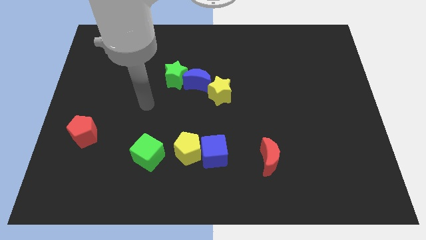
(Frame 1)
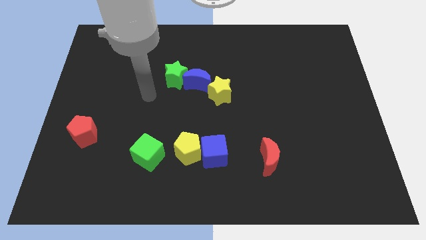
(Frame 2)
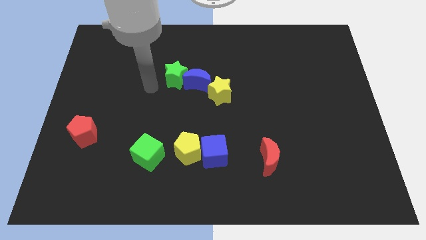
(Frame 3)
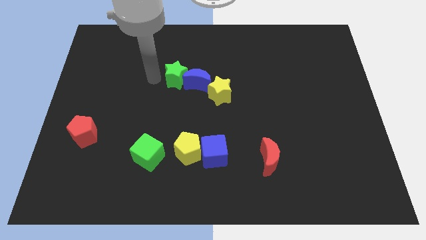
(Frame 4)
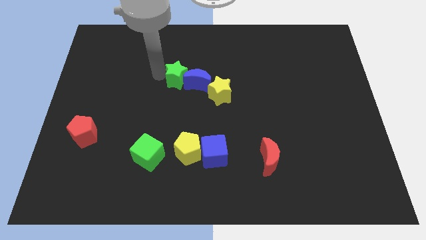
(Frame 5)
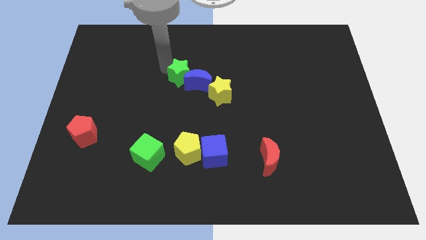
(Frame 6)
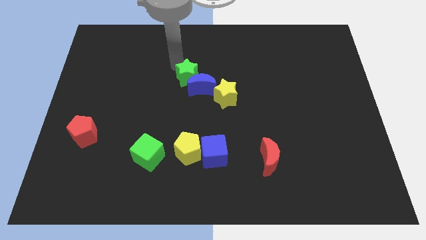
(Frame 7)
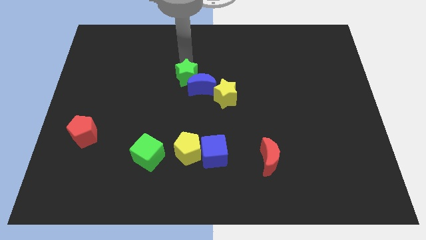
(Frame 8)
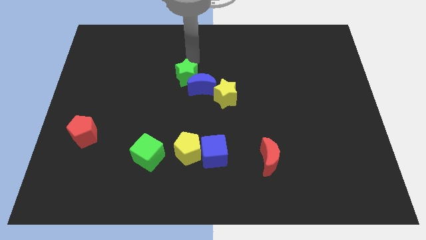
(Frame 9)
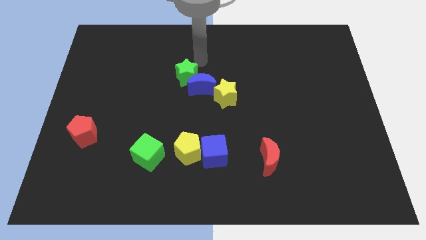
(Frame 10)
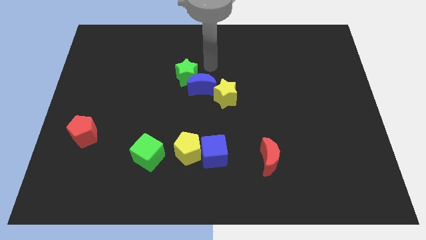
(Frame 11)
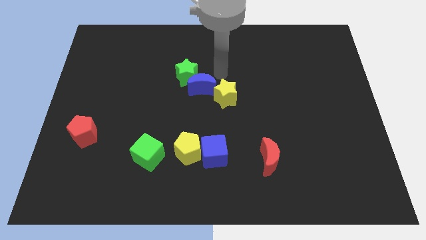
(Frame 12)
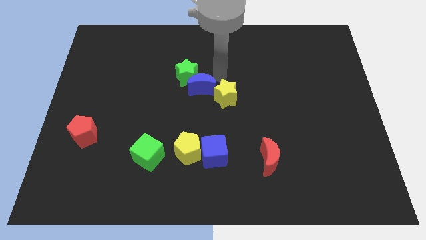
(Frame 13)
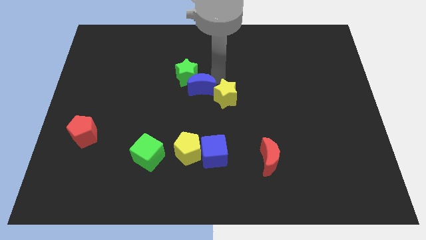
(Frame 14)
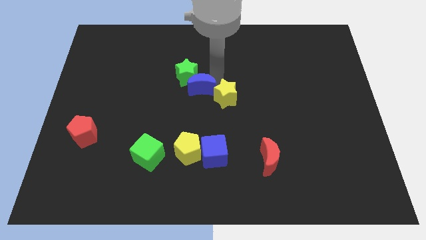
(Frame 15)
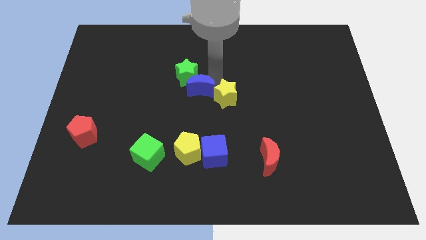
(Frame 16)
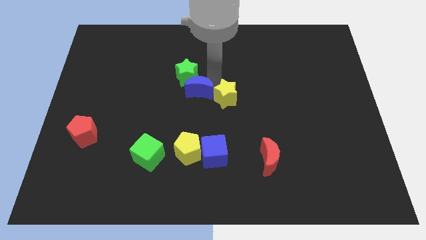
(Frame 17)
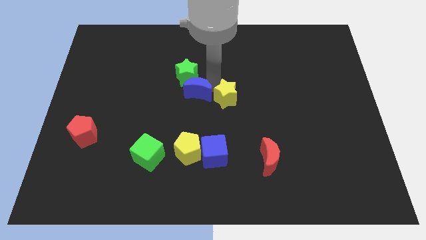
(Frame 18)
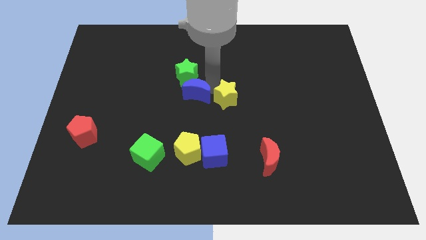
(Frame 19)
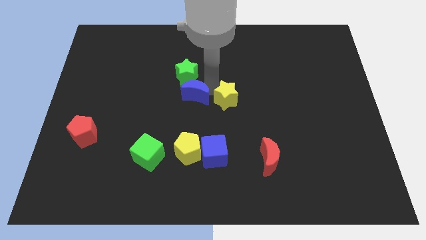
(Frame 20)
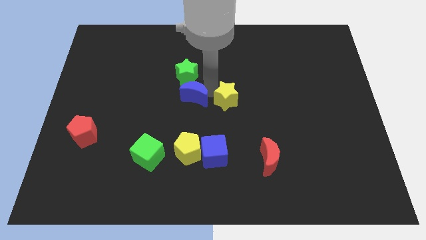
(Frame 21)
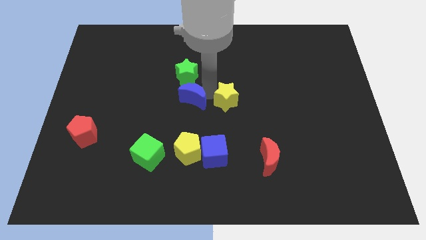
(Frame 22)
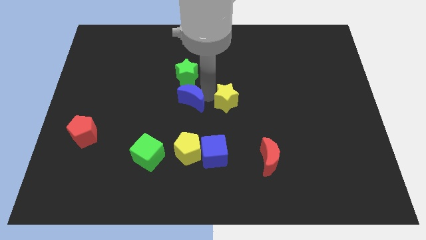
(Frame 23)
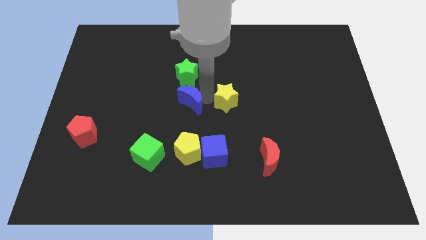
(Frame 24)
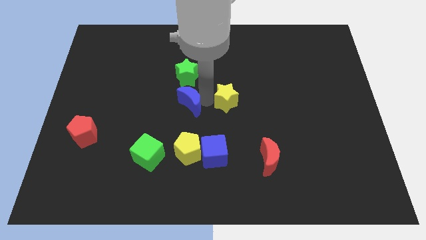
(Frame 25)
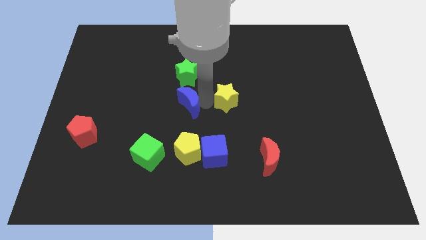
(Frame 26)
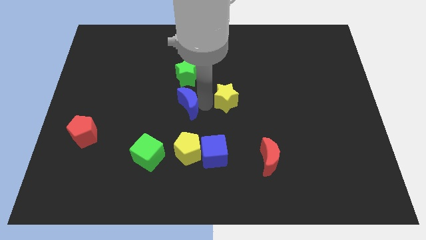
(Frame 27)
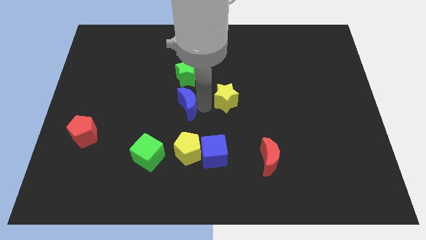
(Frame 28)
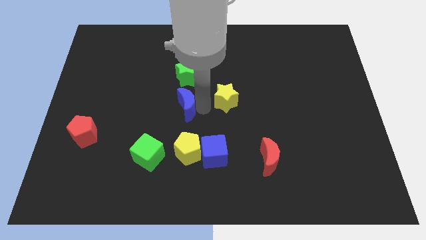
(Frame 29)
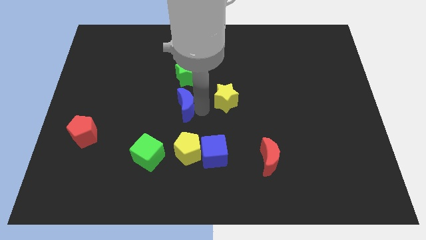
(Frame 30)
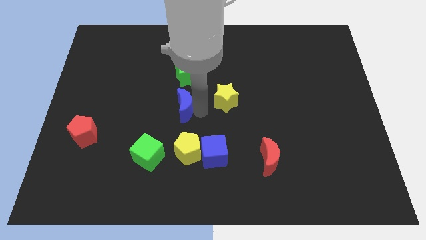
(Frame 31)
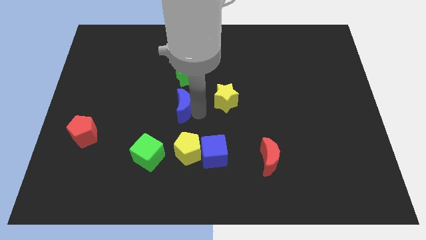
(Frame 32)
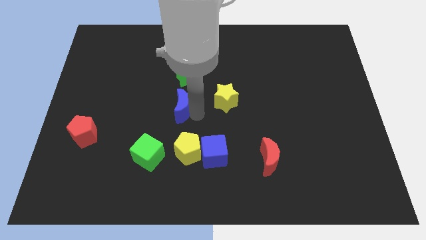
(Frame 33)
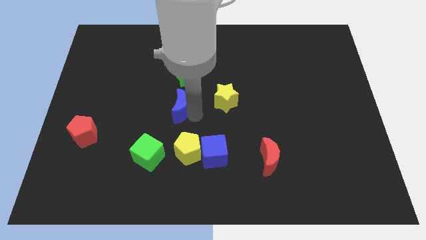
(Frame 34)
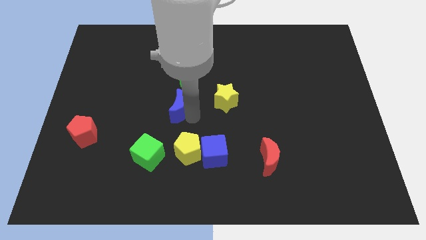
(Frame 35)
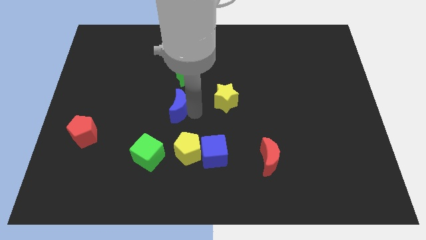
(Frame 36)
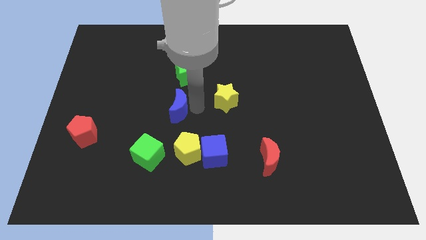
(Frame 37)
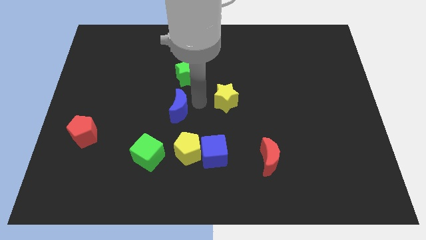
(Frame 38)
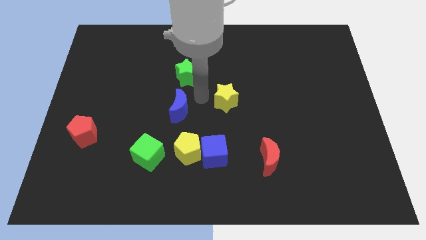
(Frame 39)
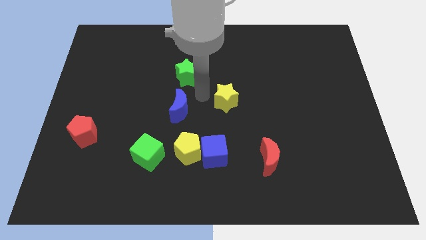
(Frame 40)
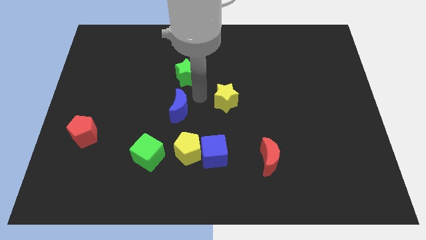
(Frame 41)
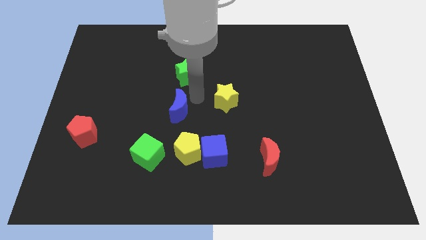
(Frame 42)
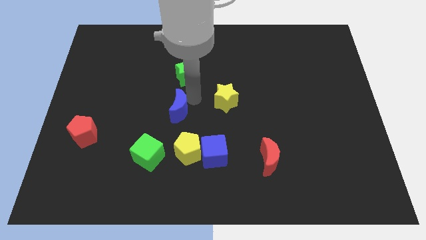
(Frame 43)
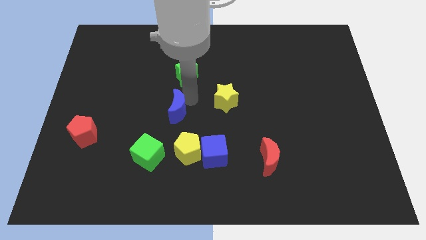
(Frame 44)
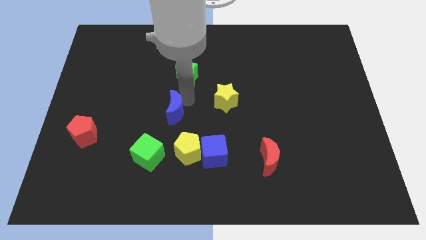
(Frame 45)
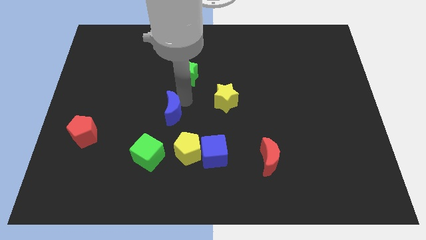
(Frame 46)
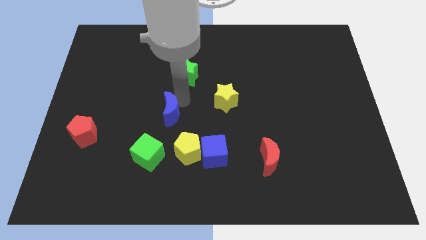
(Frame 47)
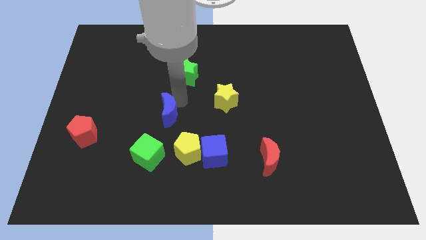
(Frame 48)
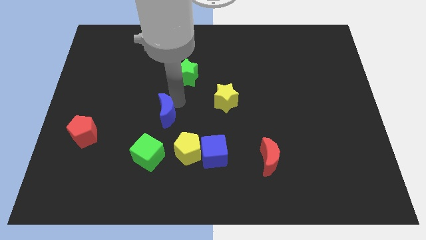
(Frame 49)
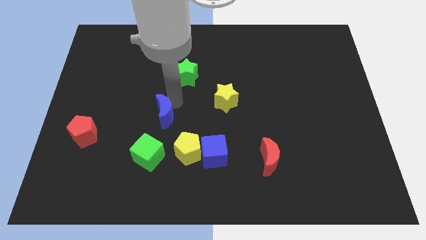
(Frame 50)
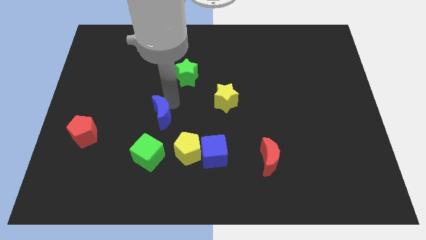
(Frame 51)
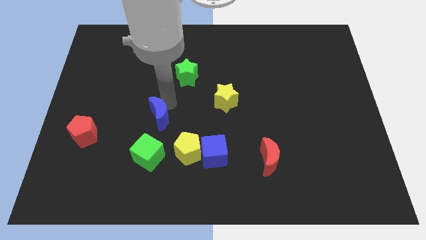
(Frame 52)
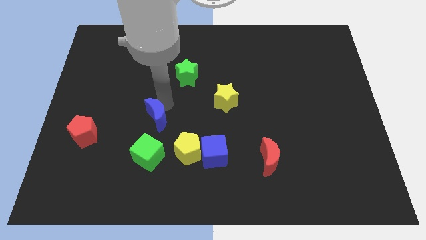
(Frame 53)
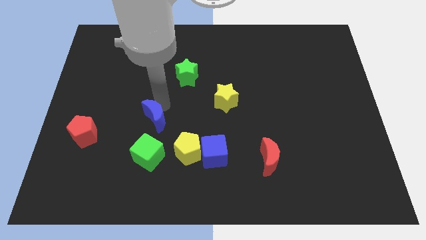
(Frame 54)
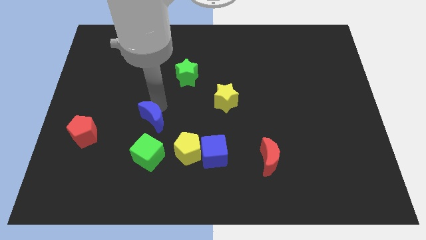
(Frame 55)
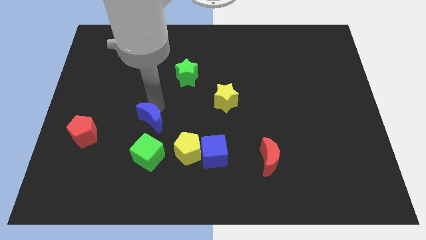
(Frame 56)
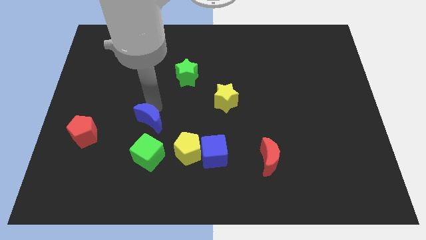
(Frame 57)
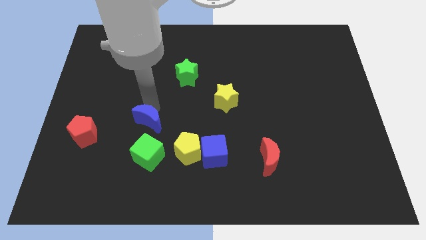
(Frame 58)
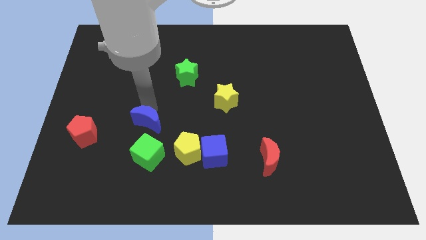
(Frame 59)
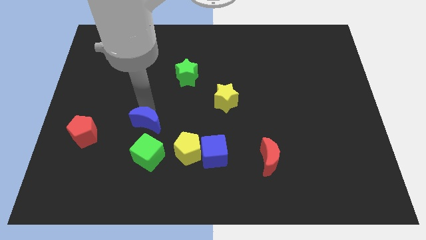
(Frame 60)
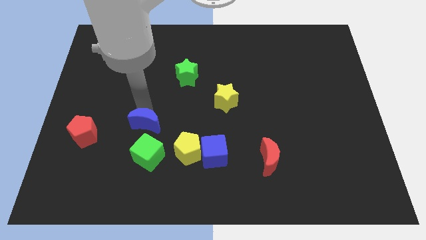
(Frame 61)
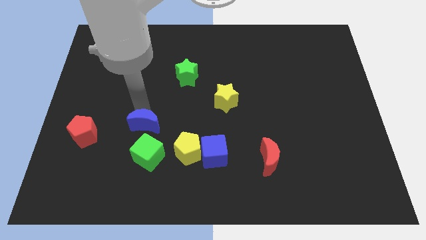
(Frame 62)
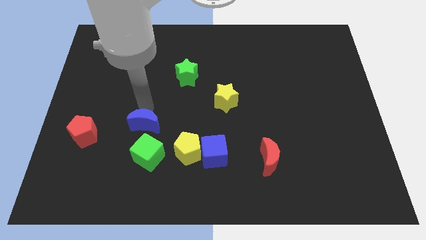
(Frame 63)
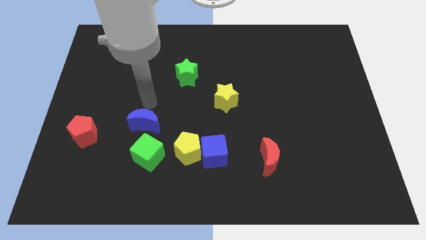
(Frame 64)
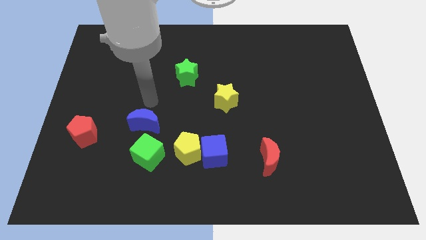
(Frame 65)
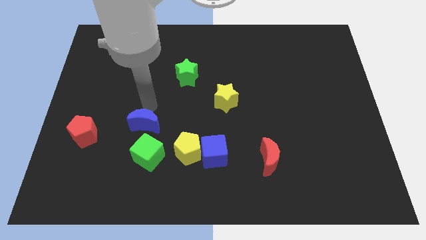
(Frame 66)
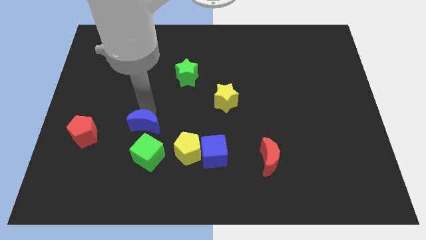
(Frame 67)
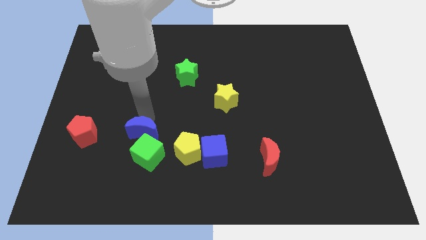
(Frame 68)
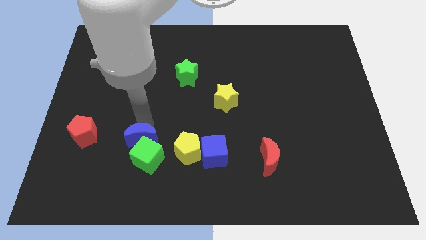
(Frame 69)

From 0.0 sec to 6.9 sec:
push the blue moon just left of the yellow pentagon
